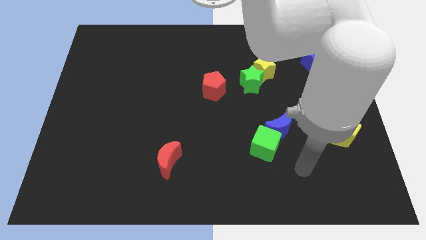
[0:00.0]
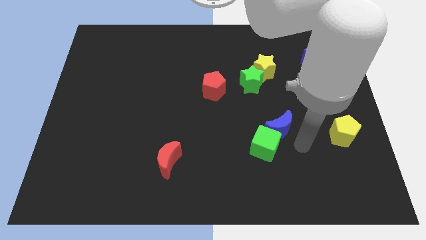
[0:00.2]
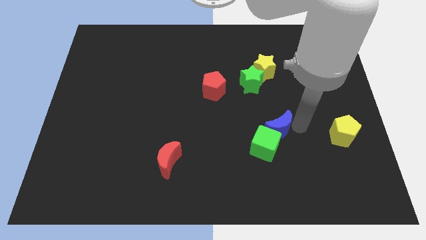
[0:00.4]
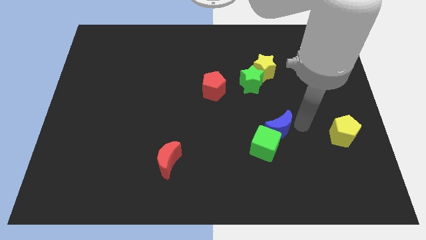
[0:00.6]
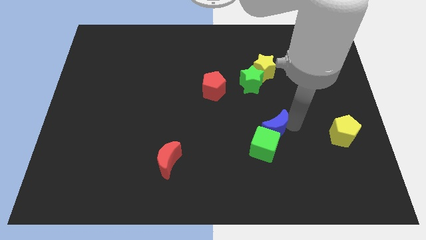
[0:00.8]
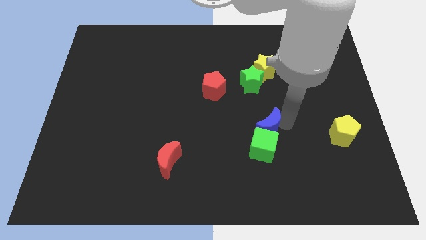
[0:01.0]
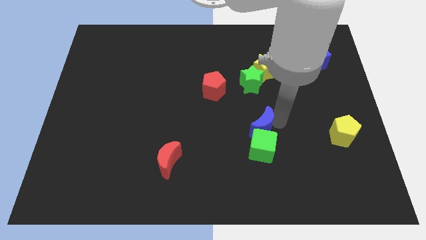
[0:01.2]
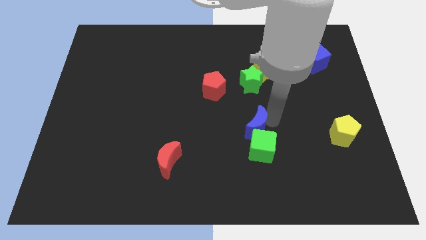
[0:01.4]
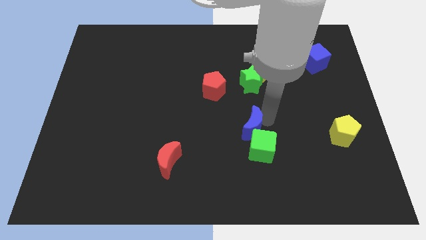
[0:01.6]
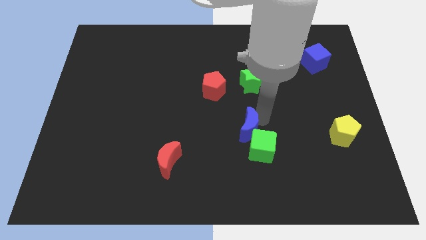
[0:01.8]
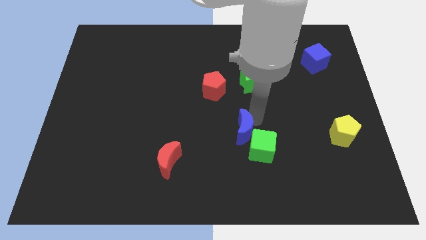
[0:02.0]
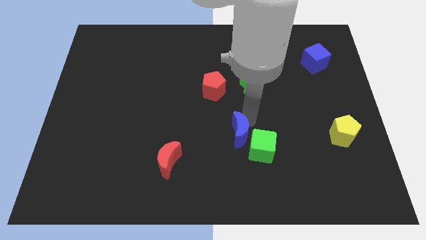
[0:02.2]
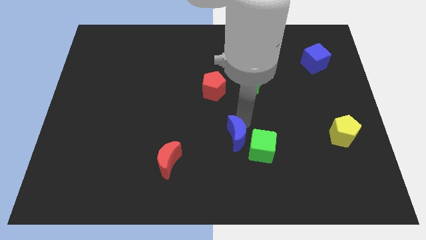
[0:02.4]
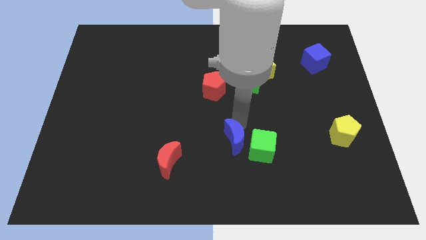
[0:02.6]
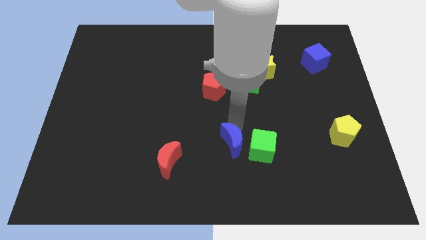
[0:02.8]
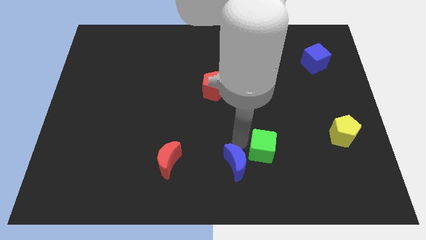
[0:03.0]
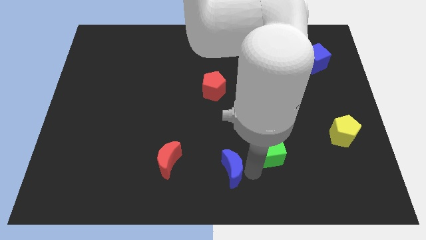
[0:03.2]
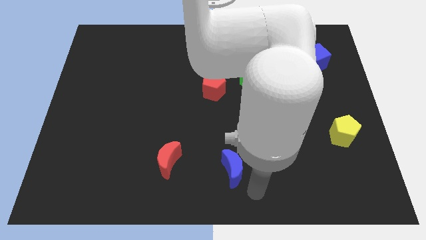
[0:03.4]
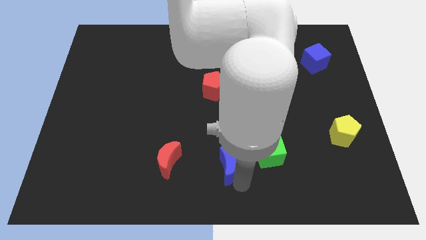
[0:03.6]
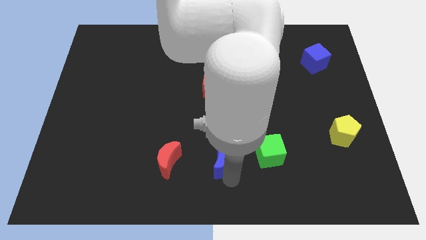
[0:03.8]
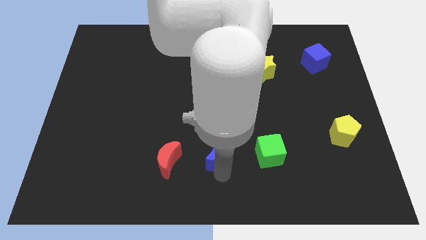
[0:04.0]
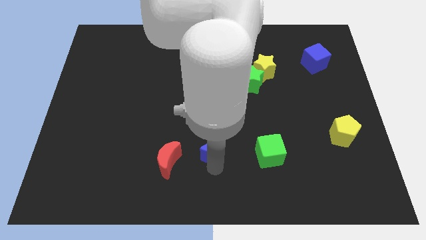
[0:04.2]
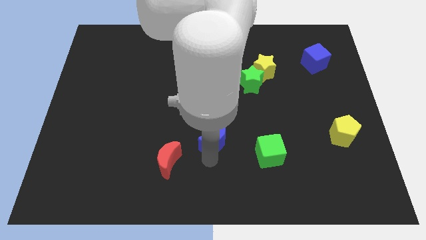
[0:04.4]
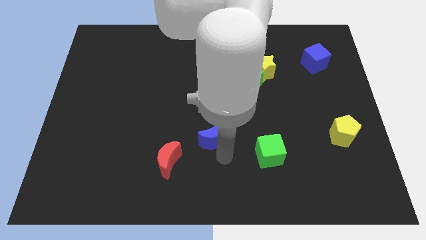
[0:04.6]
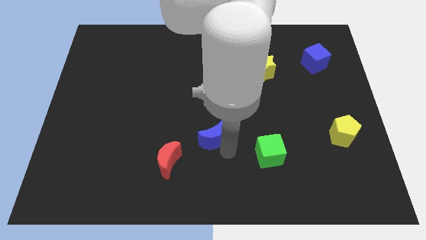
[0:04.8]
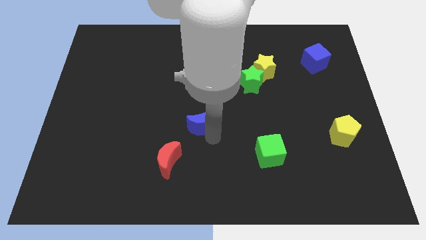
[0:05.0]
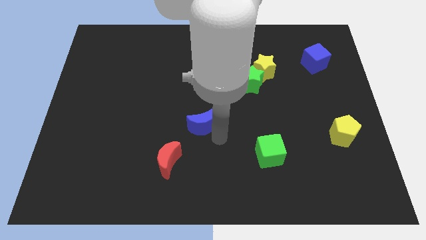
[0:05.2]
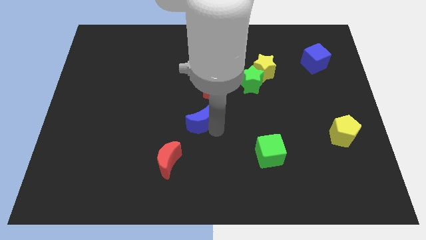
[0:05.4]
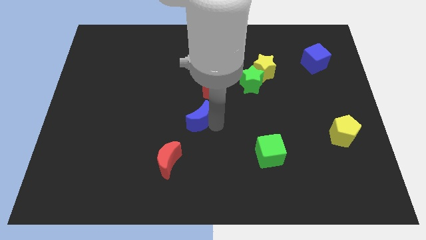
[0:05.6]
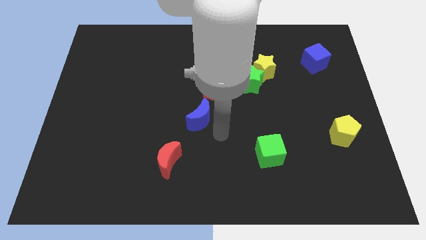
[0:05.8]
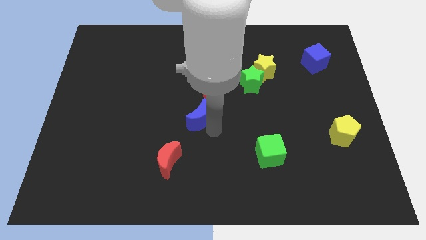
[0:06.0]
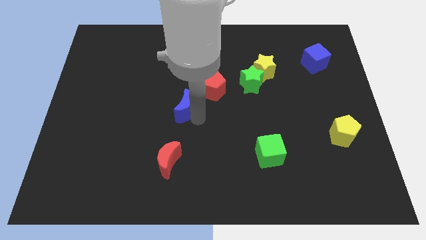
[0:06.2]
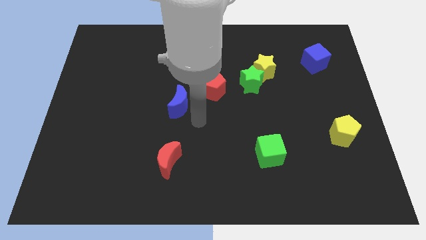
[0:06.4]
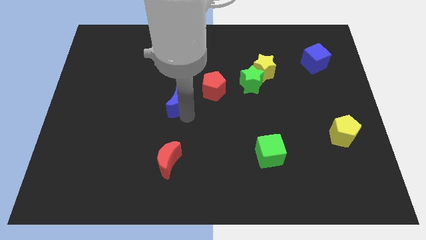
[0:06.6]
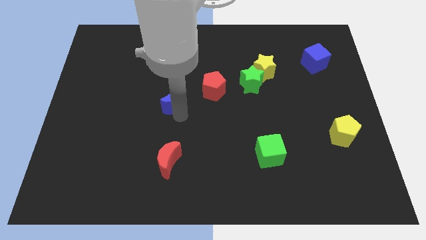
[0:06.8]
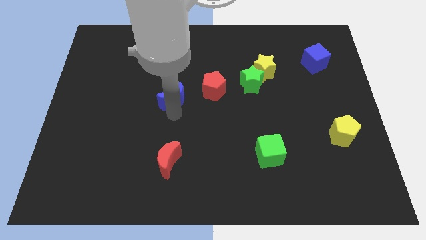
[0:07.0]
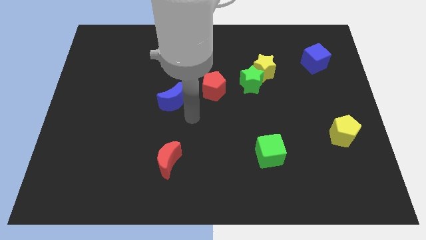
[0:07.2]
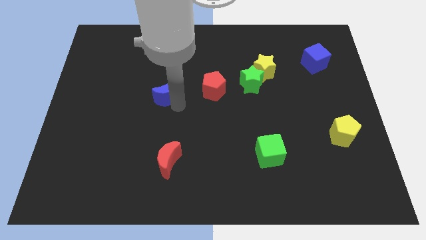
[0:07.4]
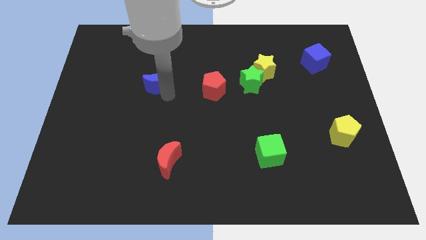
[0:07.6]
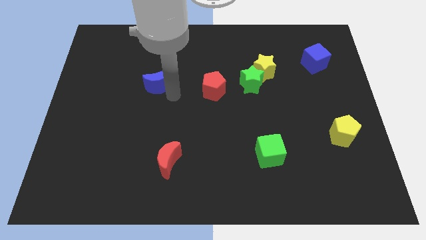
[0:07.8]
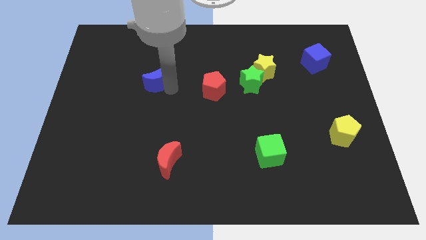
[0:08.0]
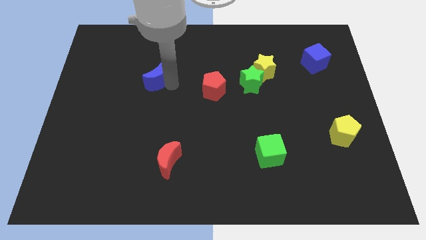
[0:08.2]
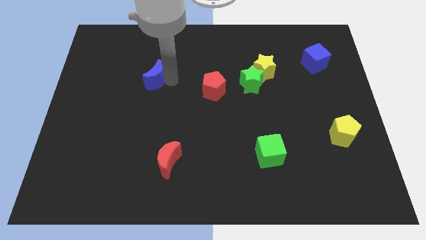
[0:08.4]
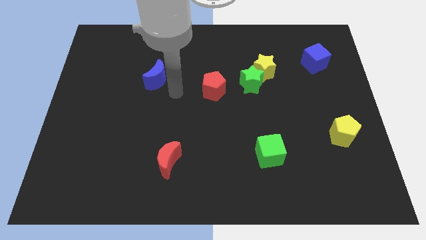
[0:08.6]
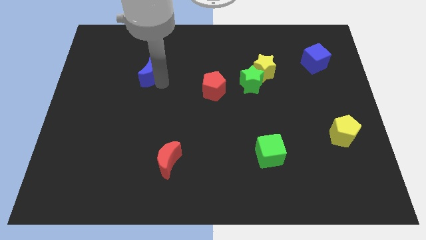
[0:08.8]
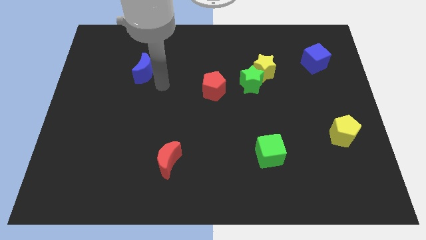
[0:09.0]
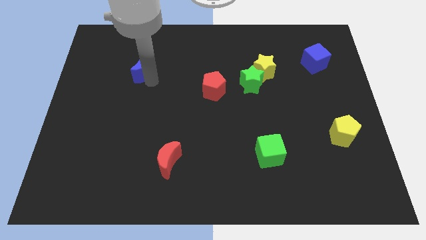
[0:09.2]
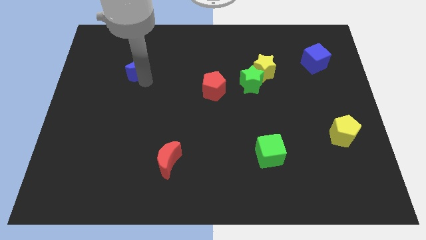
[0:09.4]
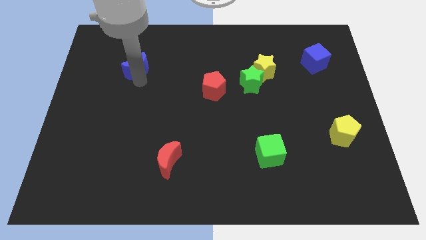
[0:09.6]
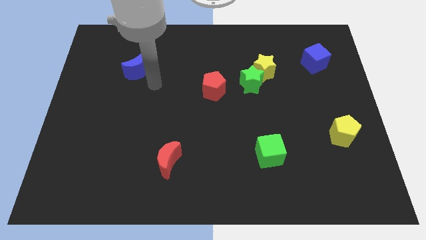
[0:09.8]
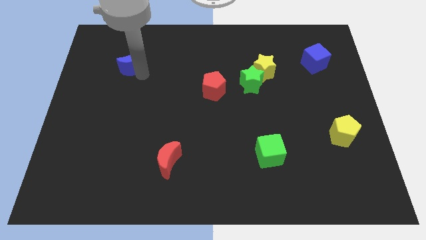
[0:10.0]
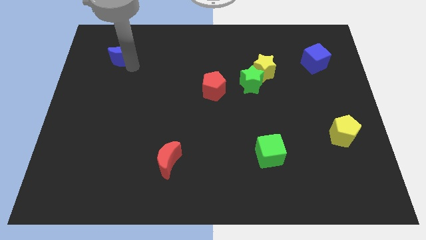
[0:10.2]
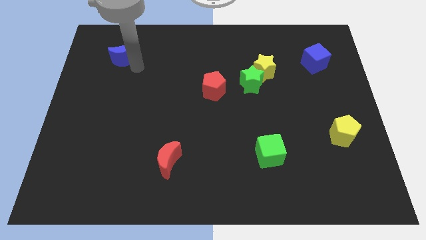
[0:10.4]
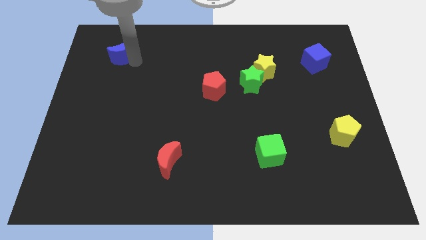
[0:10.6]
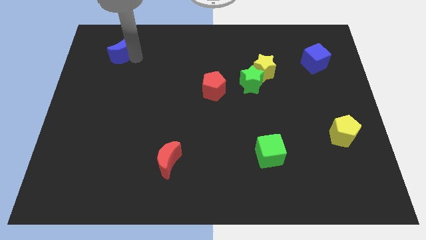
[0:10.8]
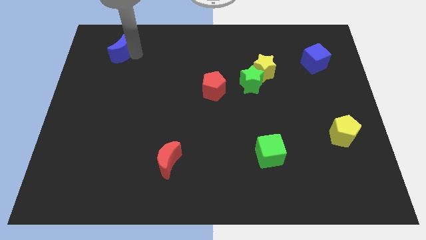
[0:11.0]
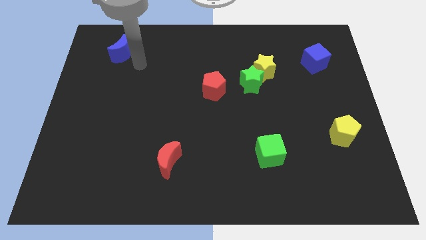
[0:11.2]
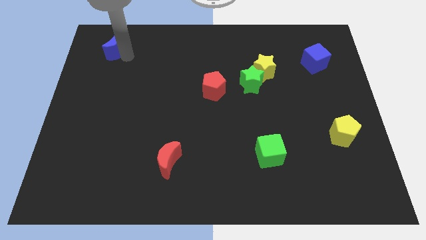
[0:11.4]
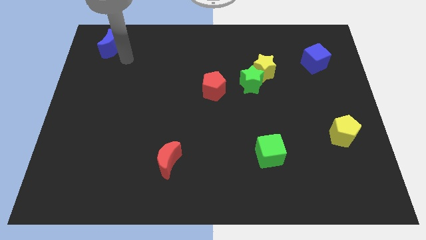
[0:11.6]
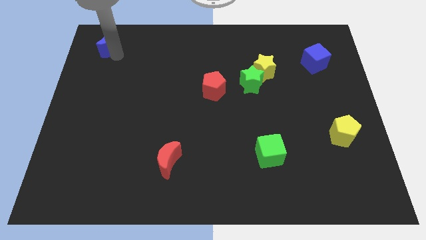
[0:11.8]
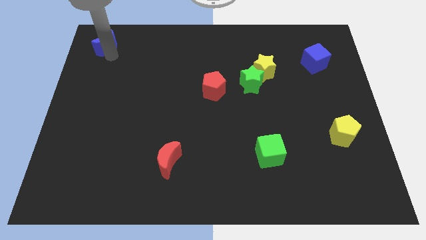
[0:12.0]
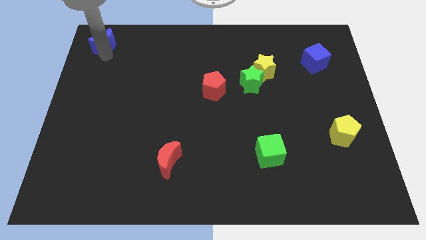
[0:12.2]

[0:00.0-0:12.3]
move the blue moon to the top left of the board
